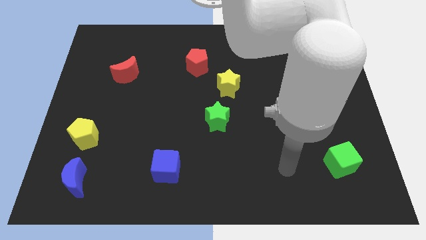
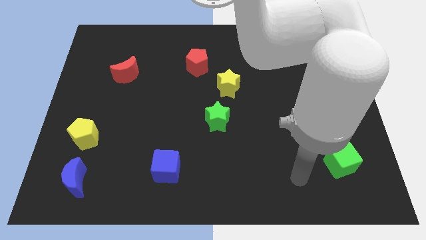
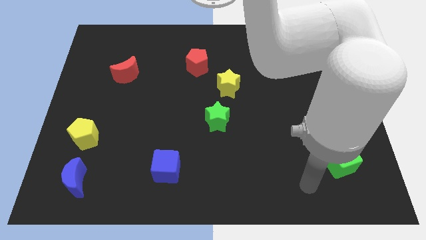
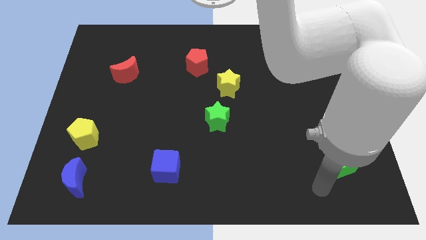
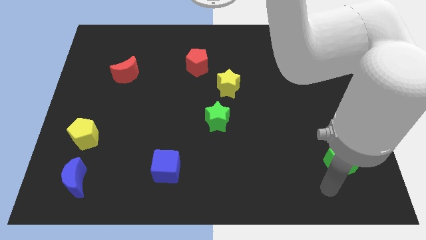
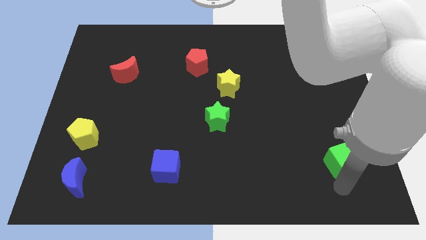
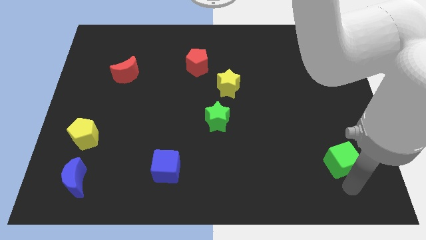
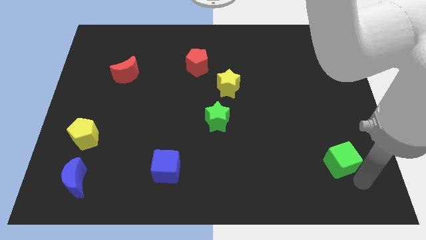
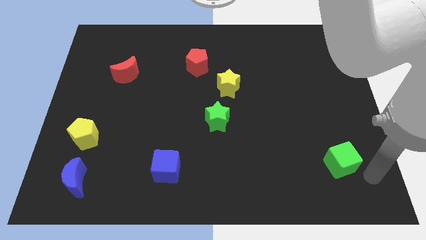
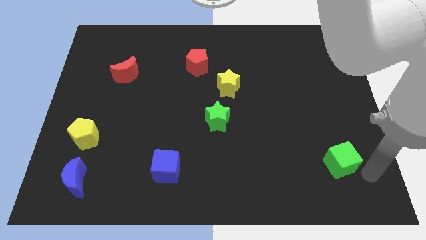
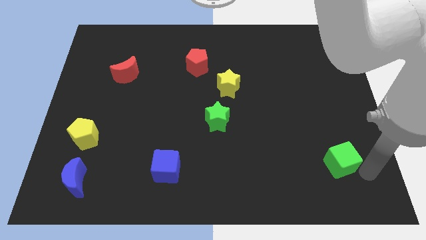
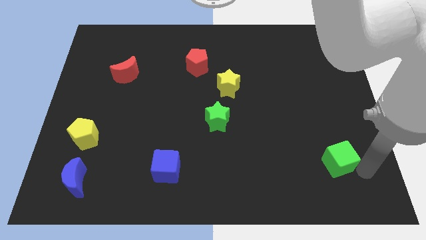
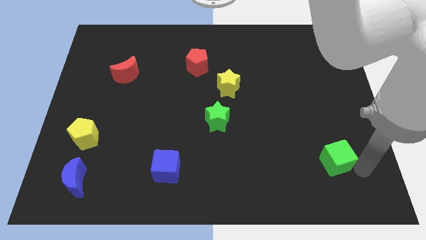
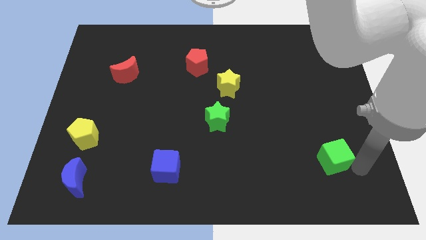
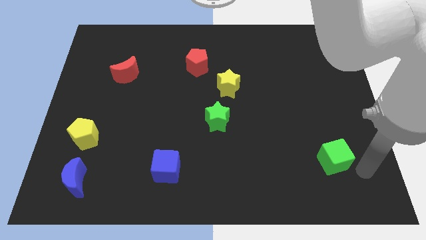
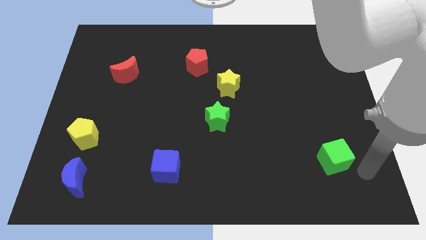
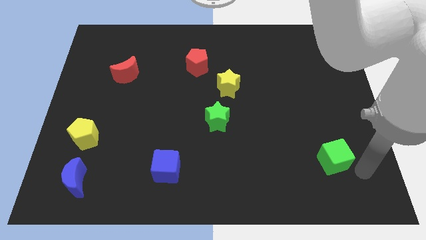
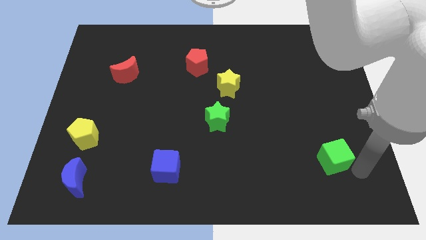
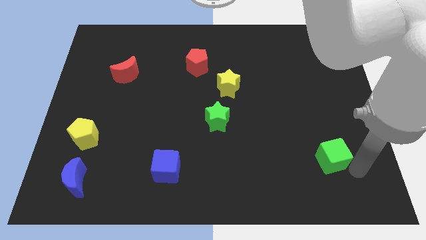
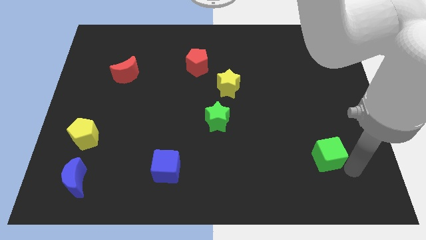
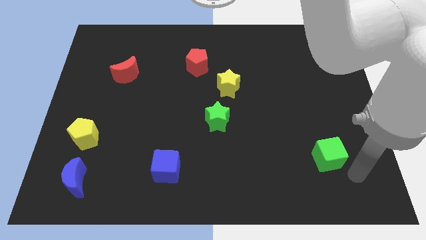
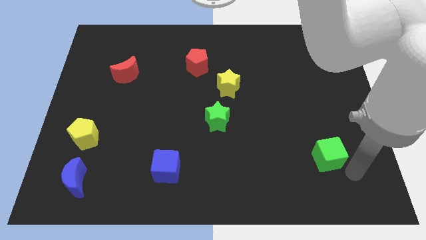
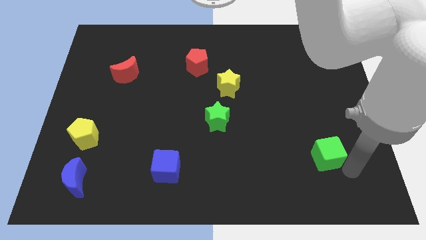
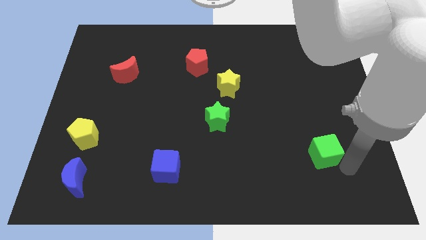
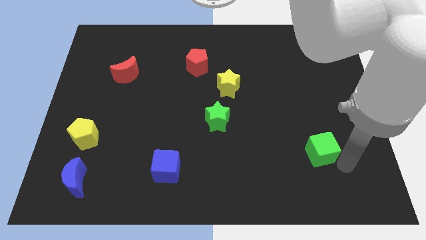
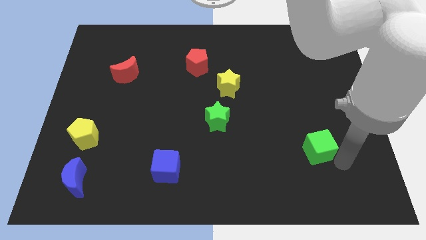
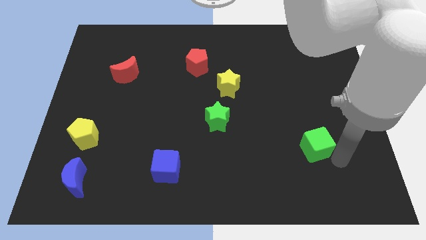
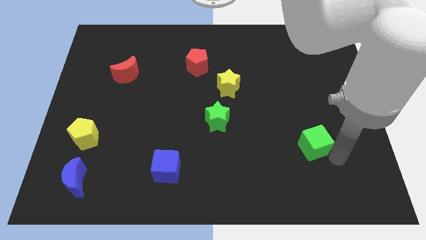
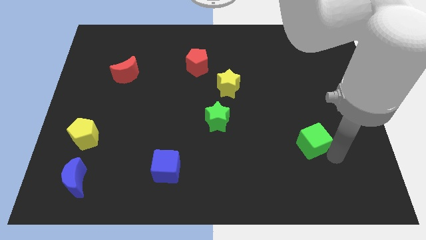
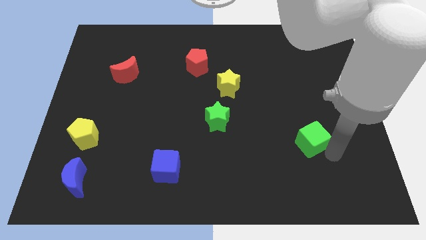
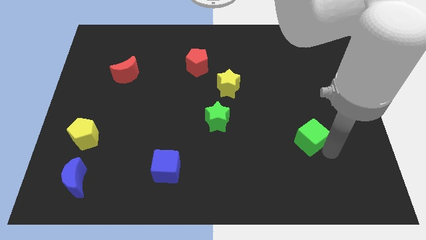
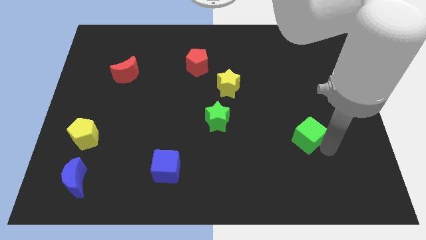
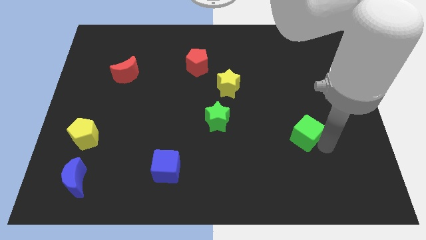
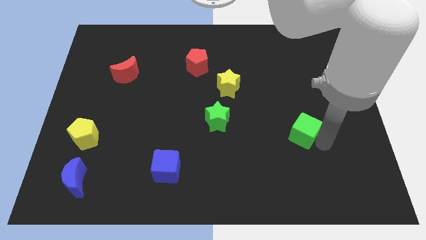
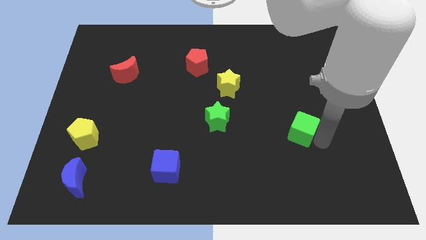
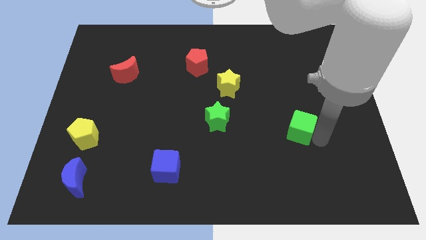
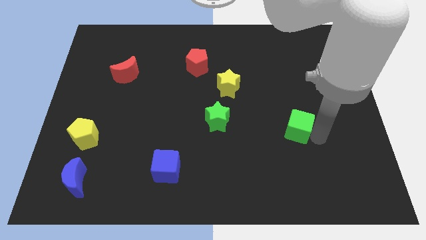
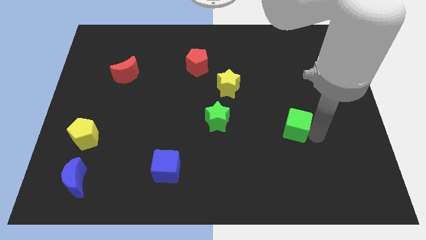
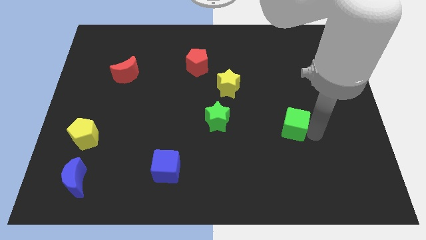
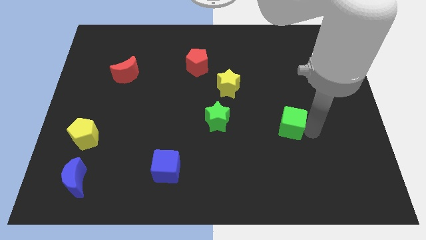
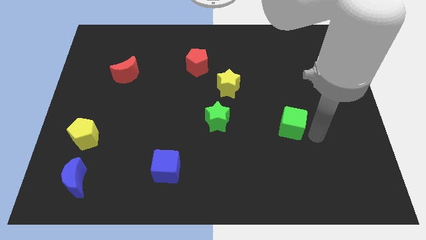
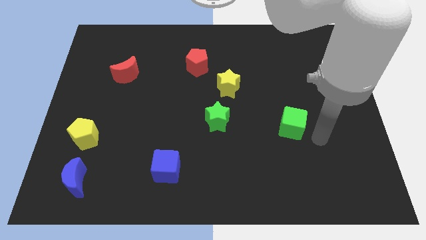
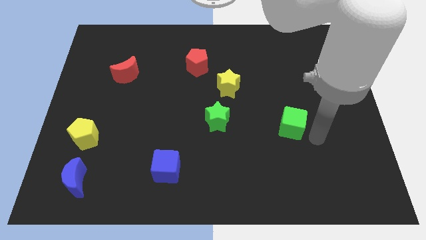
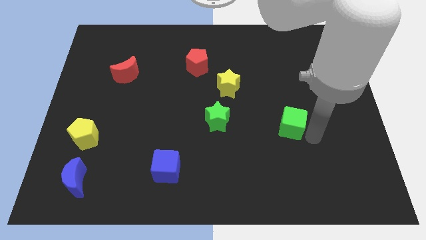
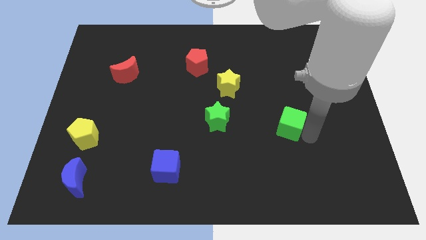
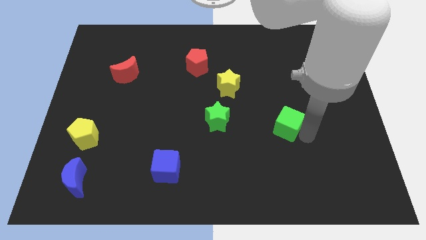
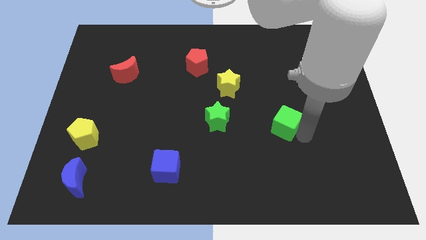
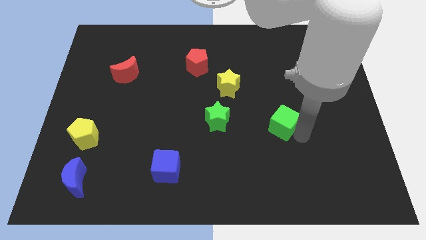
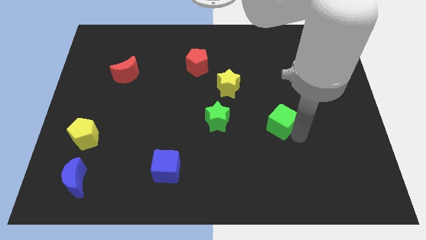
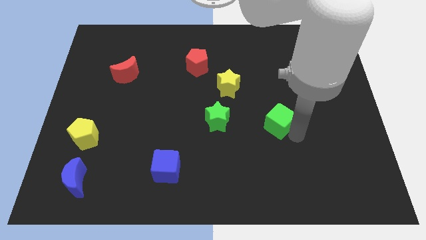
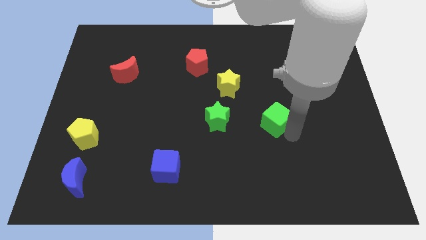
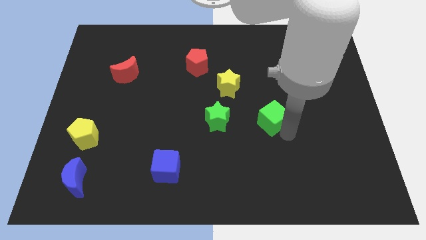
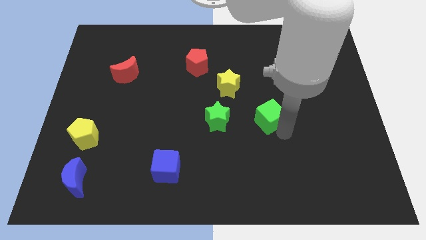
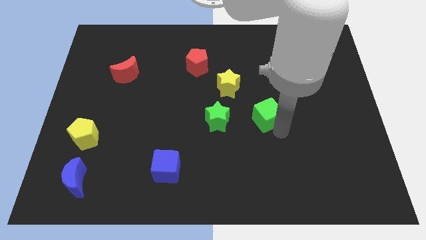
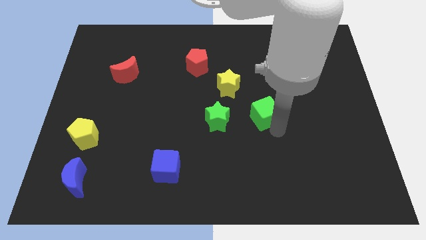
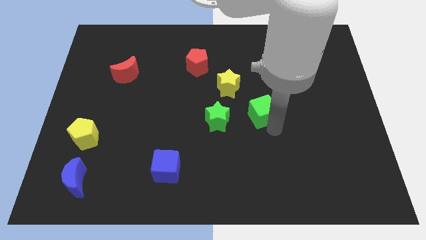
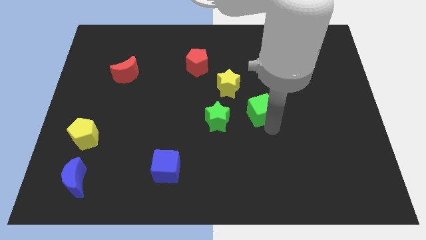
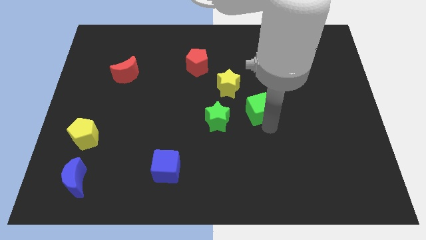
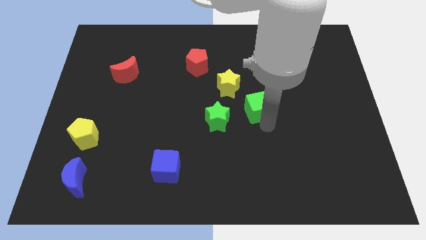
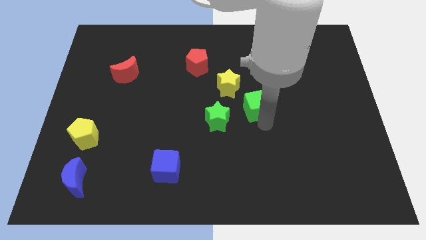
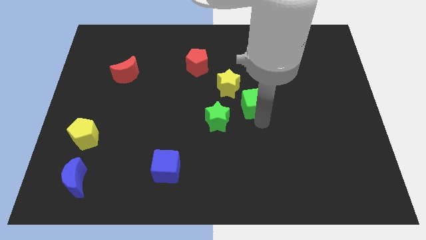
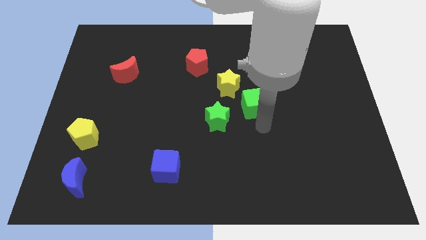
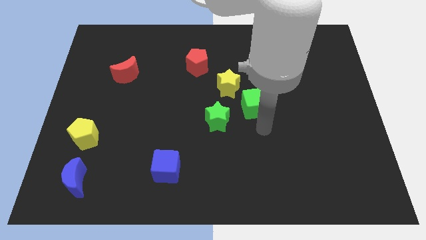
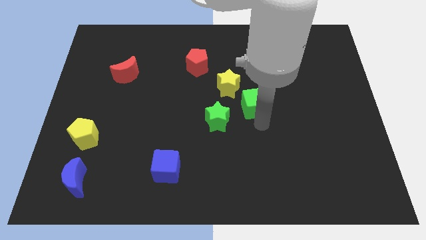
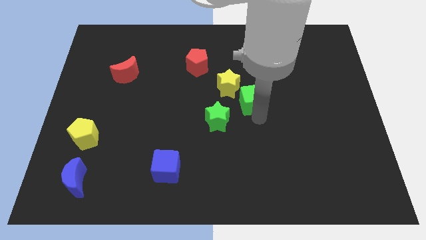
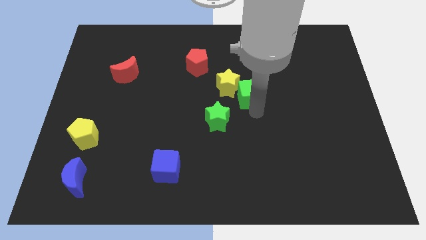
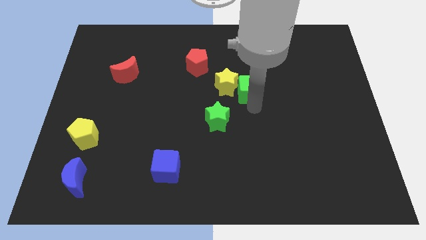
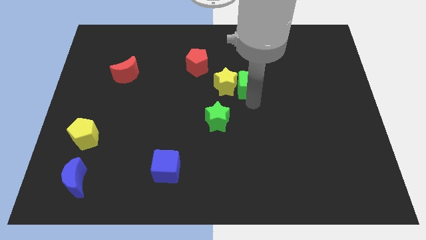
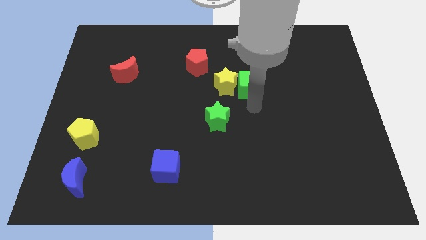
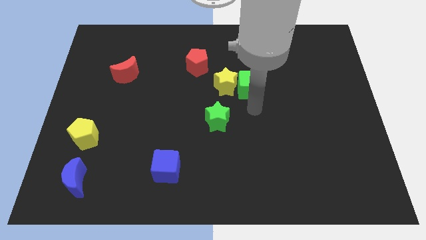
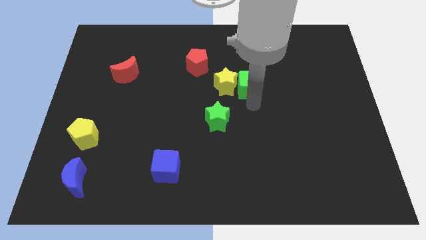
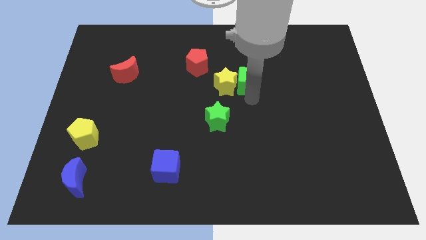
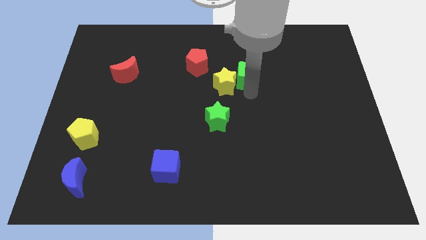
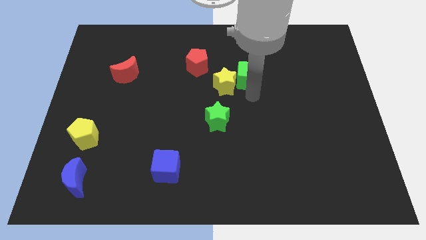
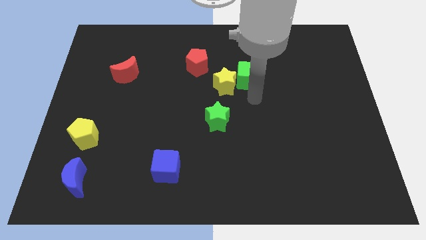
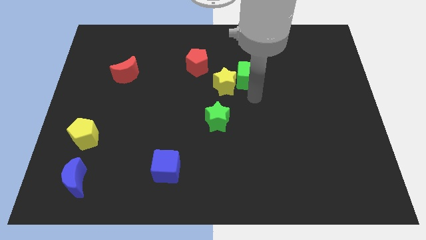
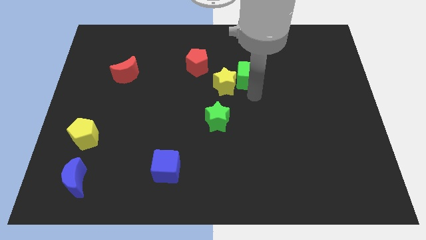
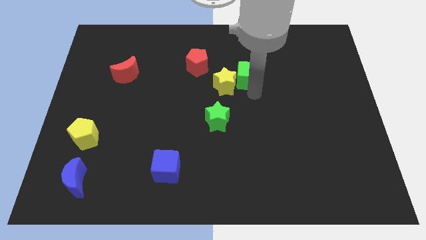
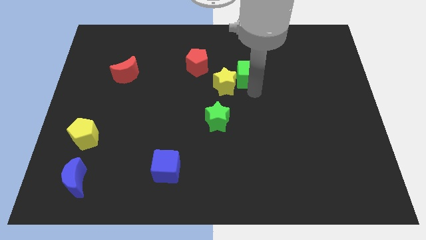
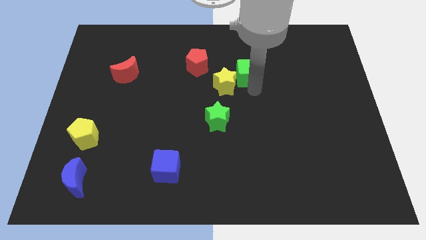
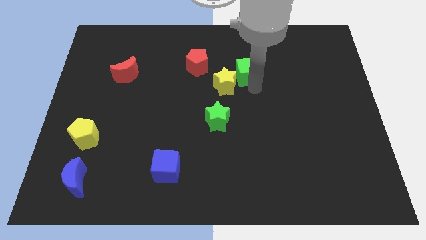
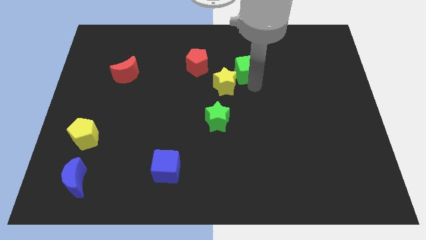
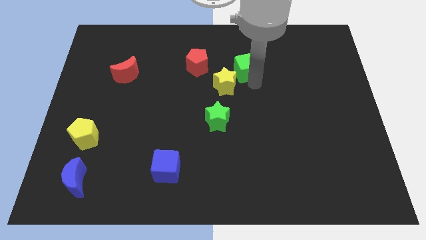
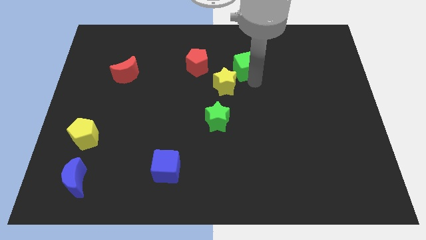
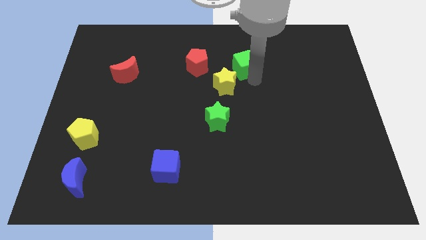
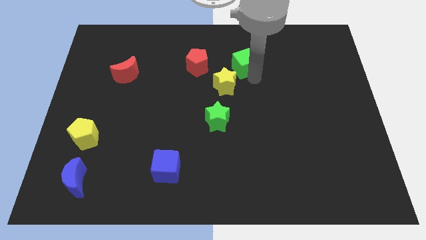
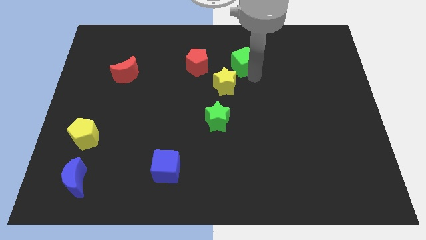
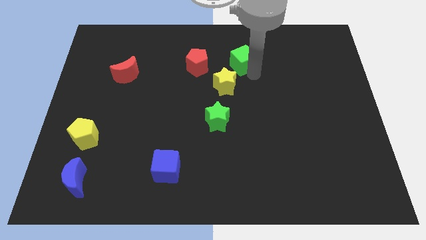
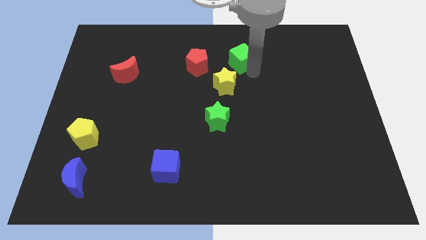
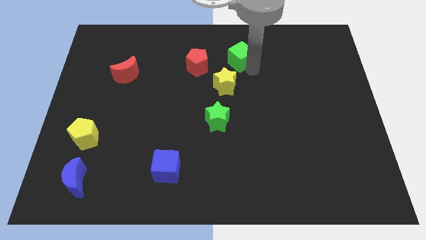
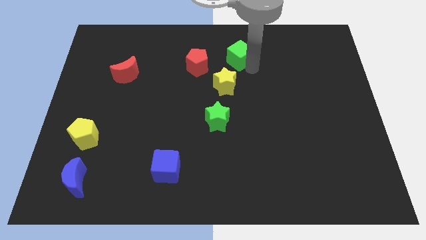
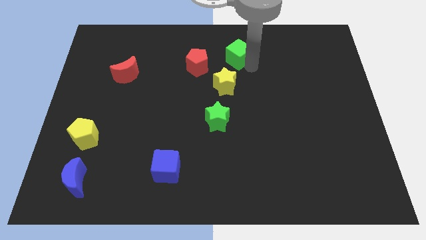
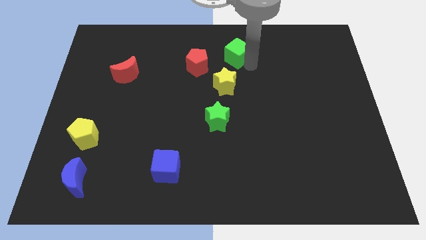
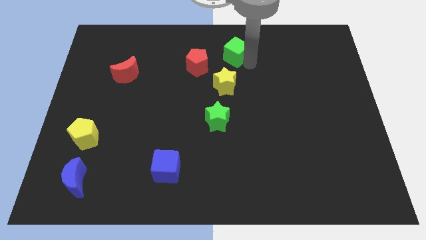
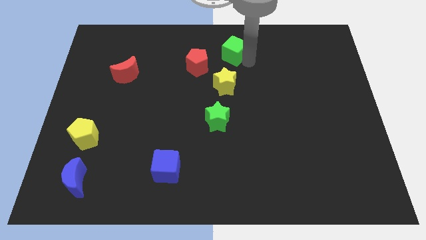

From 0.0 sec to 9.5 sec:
slide the green cube to the towards your base
